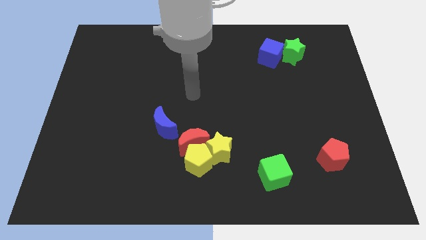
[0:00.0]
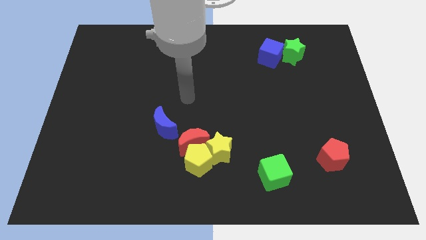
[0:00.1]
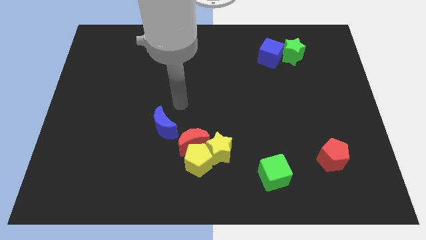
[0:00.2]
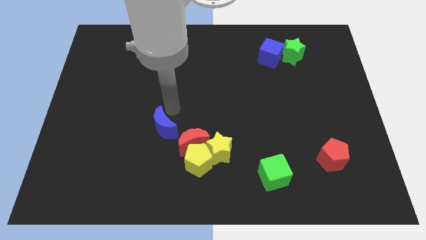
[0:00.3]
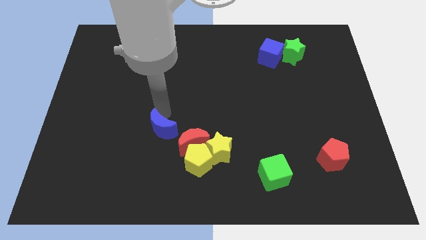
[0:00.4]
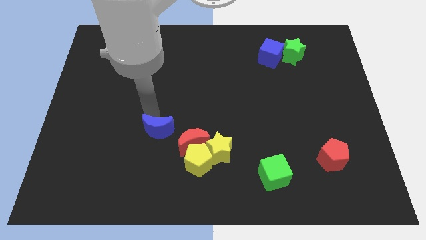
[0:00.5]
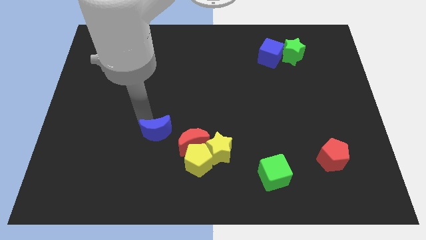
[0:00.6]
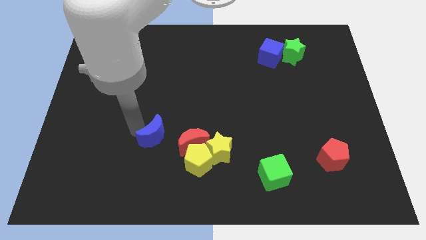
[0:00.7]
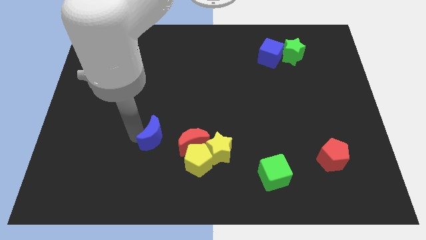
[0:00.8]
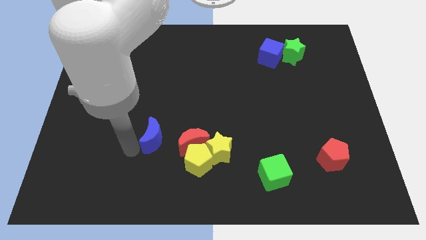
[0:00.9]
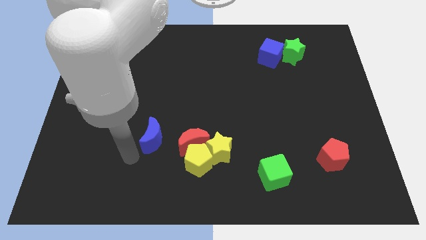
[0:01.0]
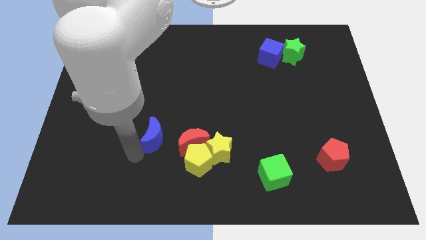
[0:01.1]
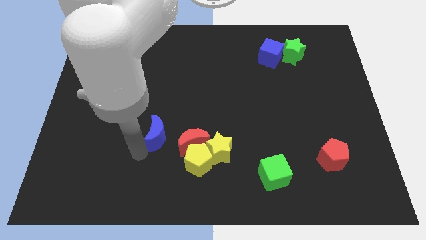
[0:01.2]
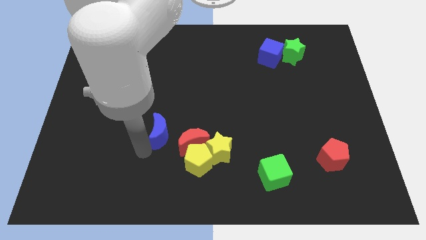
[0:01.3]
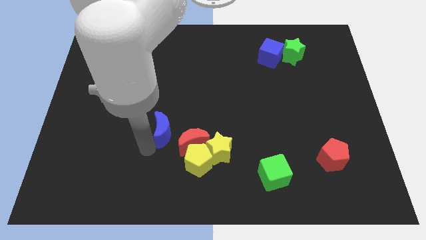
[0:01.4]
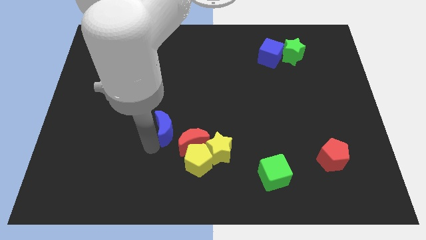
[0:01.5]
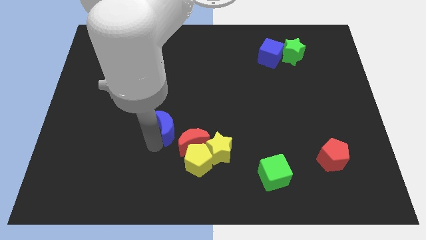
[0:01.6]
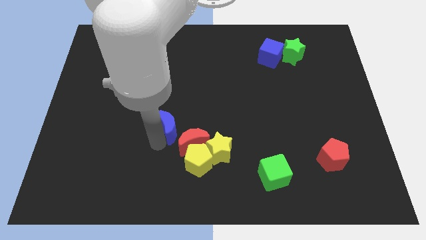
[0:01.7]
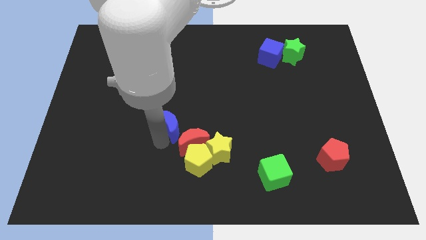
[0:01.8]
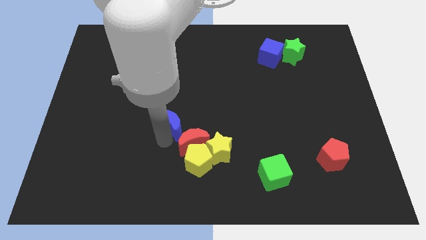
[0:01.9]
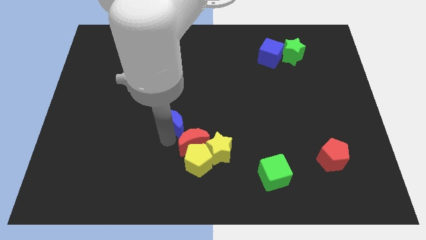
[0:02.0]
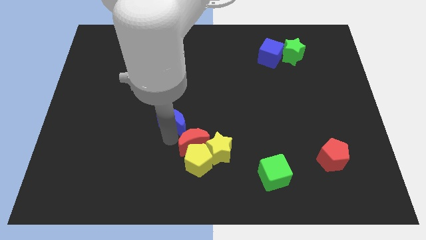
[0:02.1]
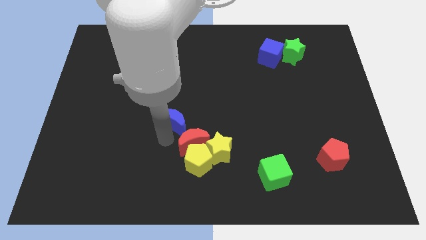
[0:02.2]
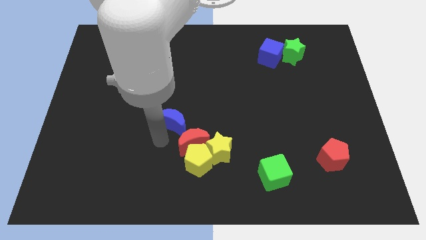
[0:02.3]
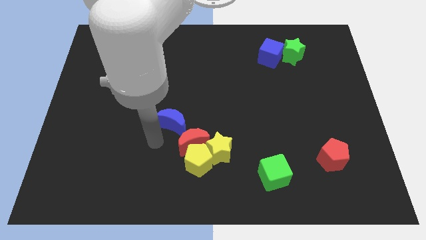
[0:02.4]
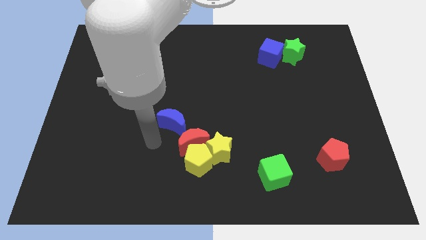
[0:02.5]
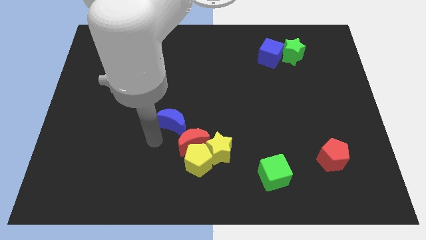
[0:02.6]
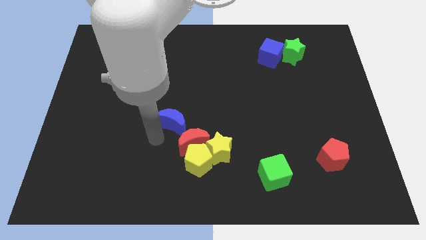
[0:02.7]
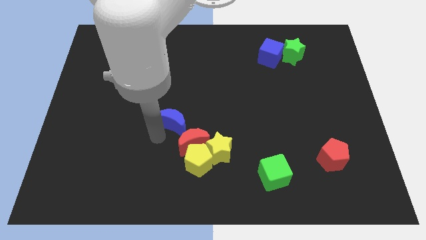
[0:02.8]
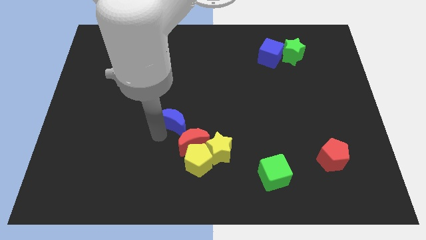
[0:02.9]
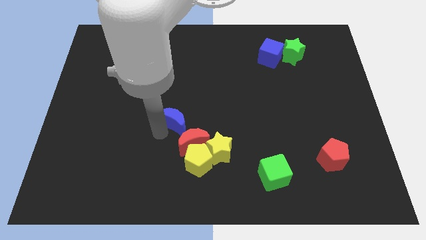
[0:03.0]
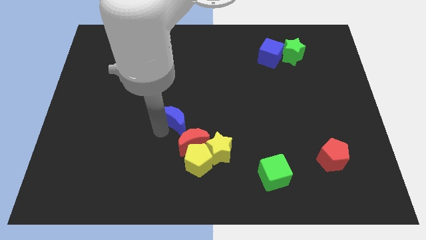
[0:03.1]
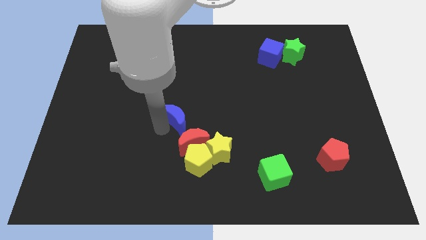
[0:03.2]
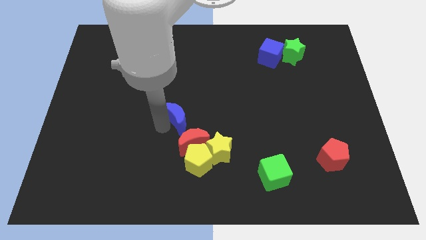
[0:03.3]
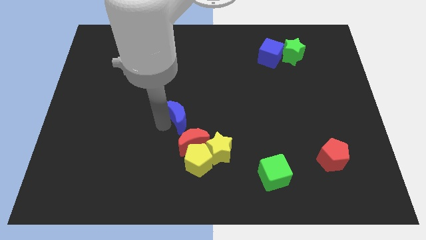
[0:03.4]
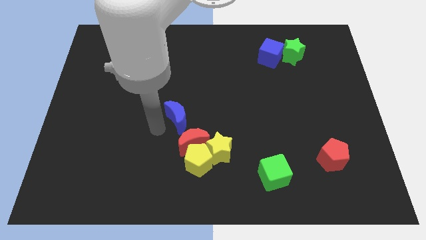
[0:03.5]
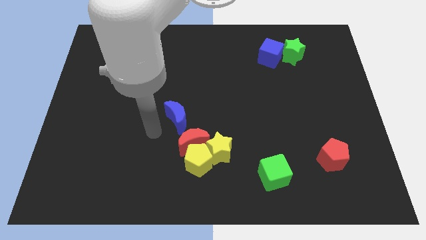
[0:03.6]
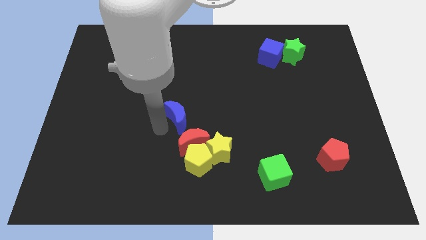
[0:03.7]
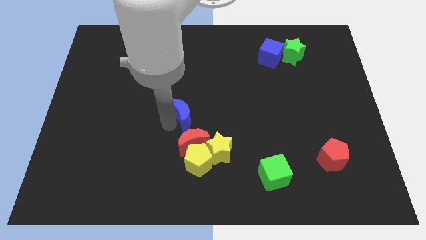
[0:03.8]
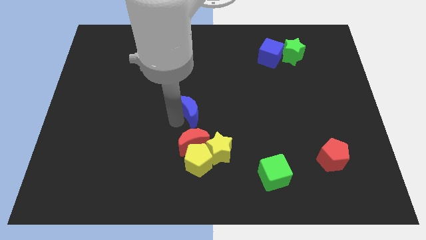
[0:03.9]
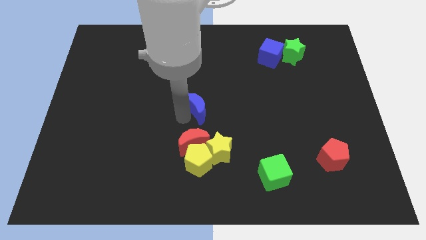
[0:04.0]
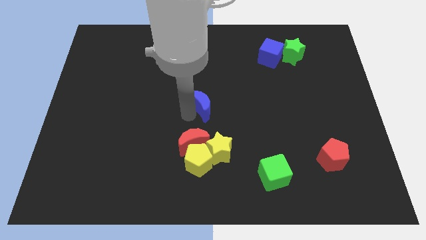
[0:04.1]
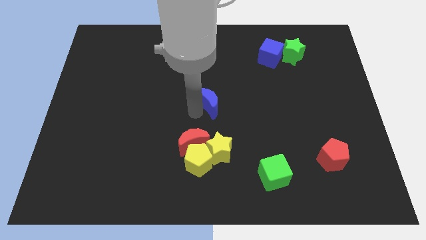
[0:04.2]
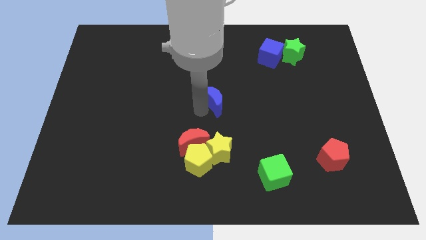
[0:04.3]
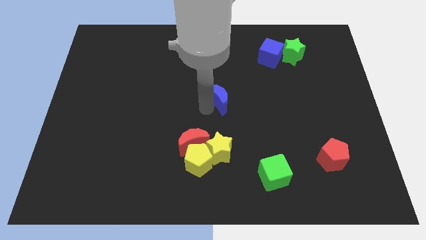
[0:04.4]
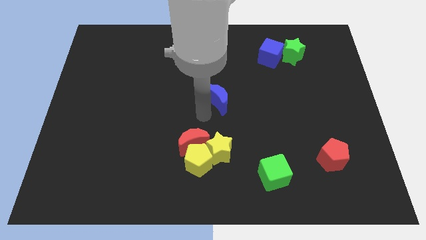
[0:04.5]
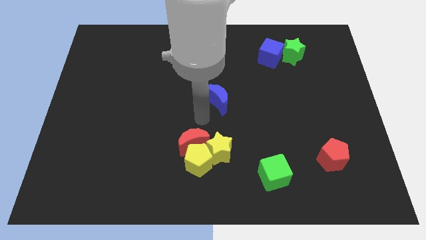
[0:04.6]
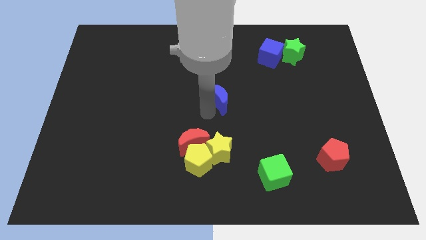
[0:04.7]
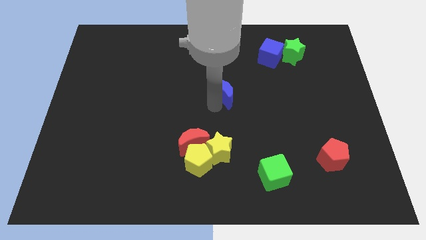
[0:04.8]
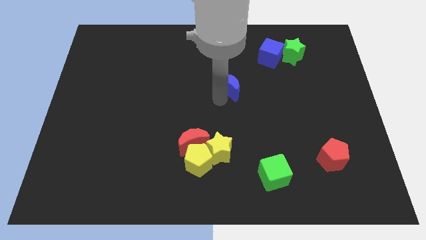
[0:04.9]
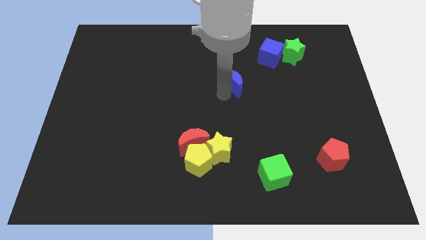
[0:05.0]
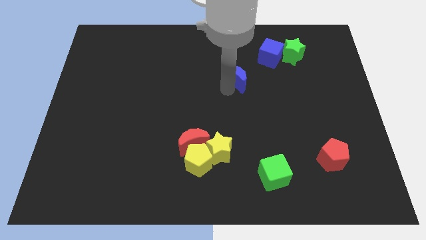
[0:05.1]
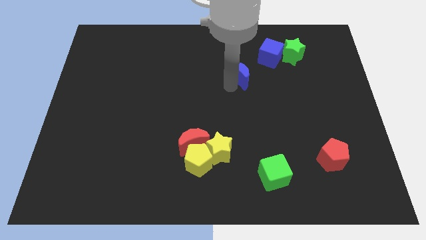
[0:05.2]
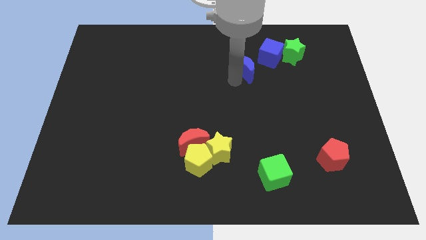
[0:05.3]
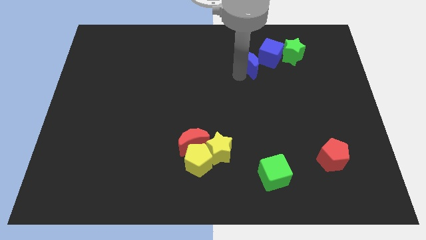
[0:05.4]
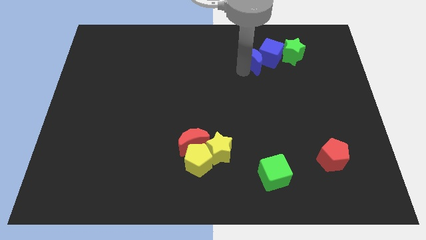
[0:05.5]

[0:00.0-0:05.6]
slide the blue moon towards the blue cube

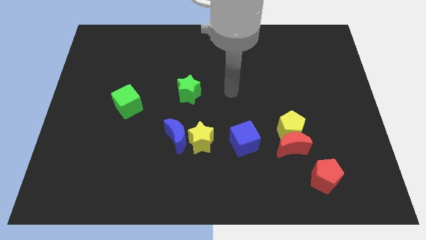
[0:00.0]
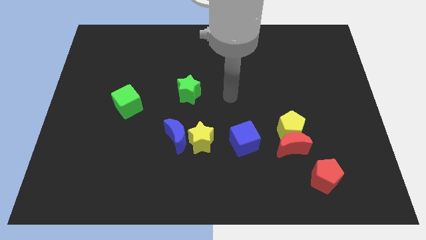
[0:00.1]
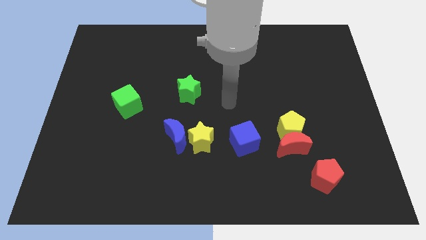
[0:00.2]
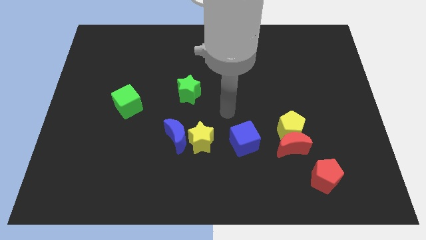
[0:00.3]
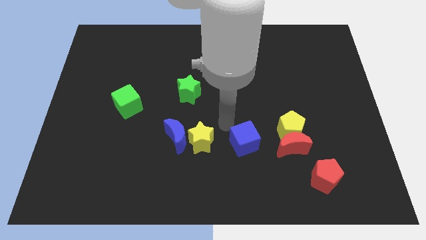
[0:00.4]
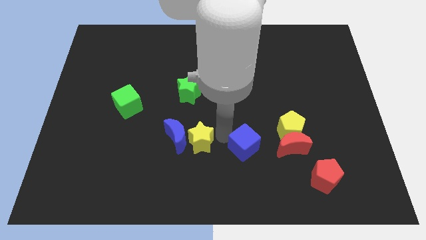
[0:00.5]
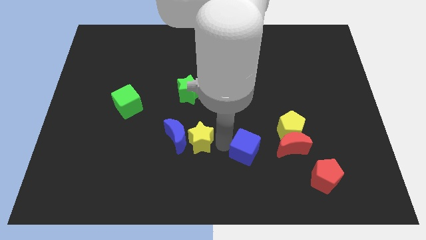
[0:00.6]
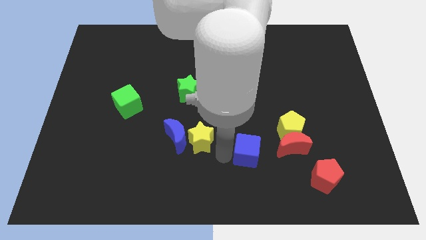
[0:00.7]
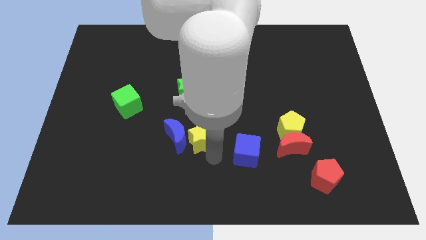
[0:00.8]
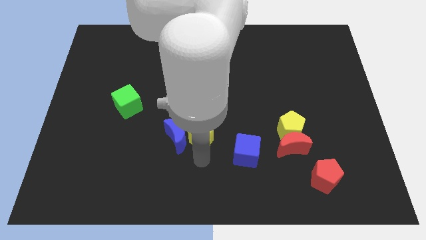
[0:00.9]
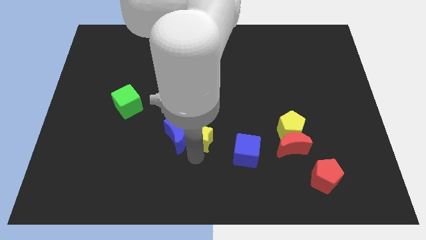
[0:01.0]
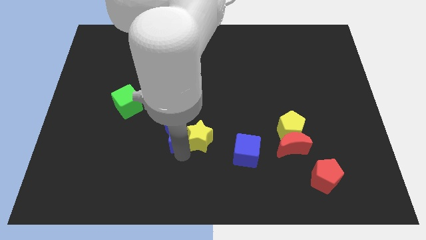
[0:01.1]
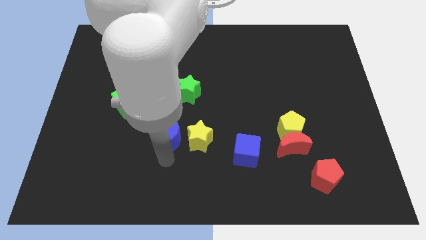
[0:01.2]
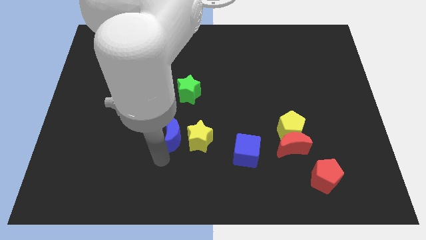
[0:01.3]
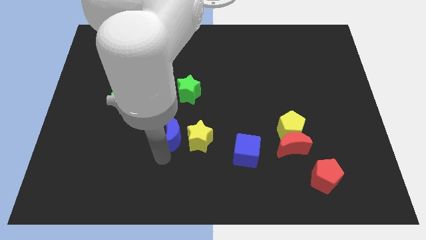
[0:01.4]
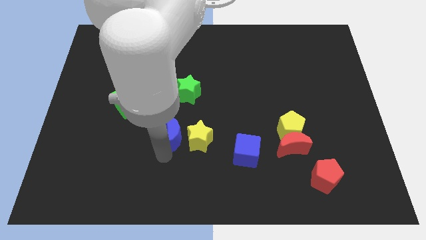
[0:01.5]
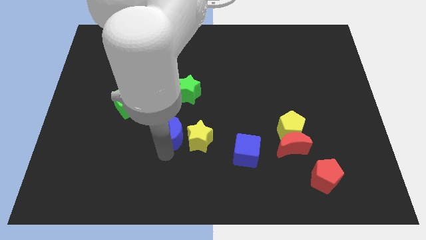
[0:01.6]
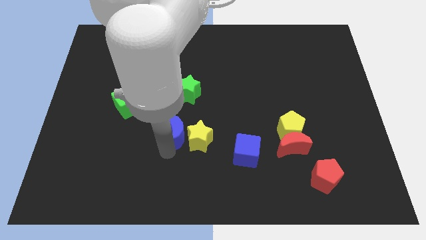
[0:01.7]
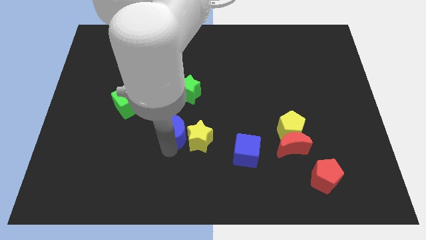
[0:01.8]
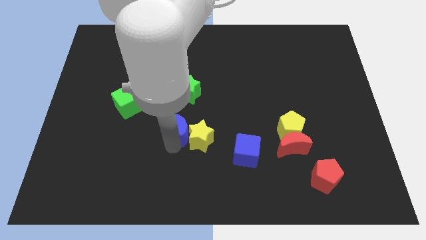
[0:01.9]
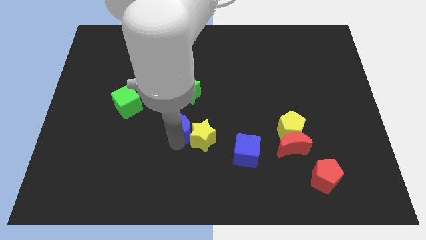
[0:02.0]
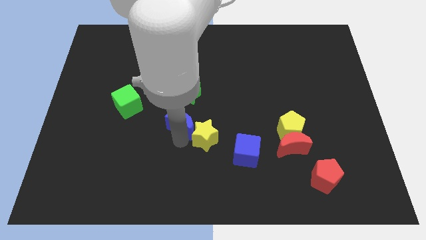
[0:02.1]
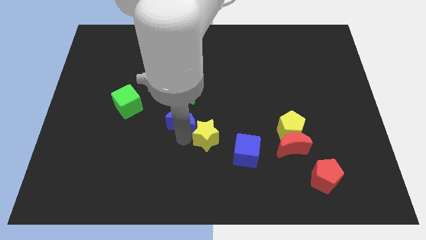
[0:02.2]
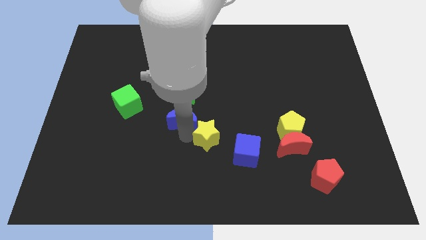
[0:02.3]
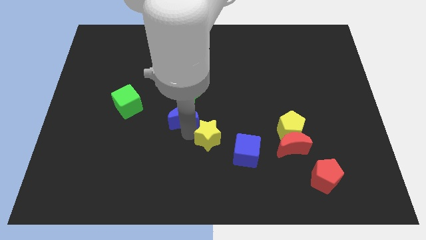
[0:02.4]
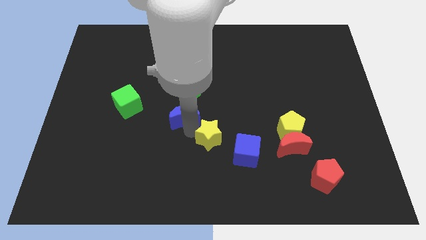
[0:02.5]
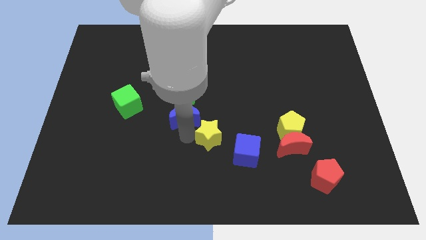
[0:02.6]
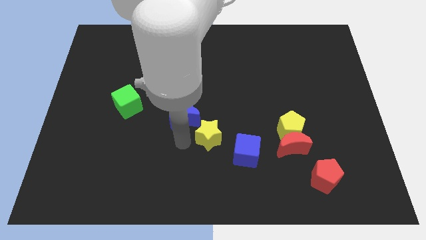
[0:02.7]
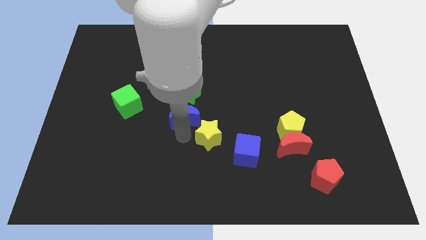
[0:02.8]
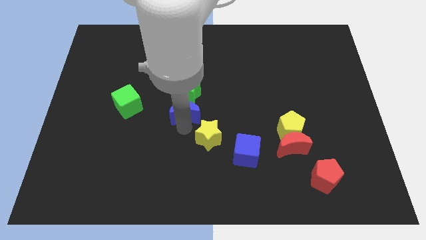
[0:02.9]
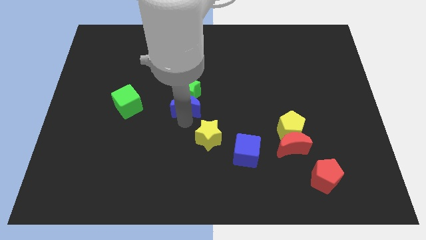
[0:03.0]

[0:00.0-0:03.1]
push the blue moon next to the green star
